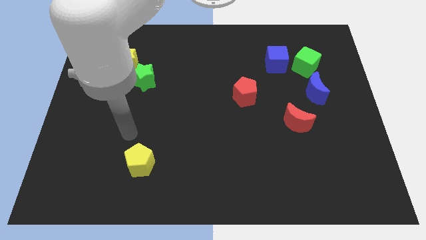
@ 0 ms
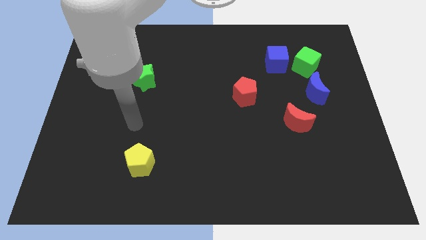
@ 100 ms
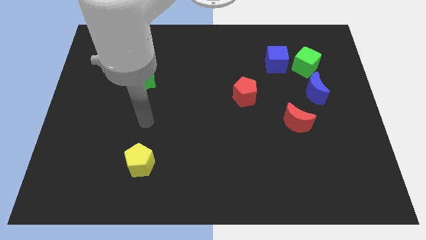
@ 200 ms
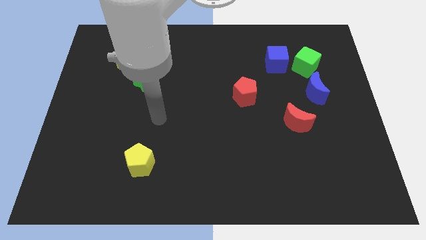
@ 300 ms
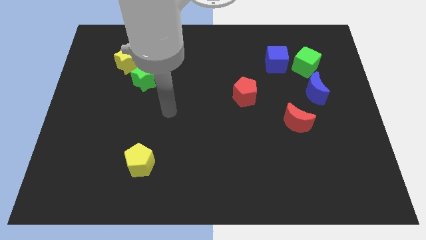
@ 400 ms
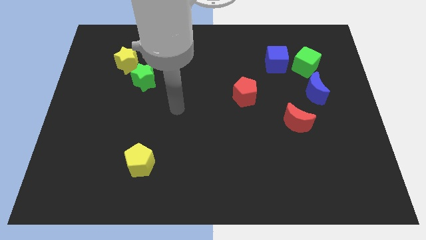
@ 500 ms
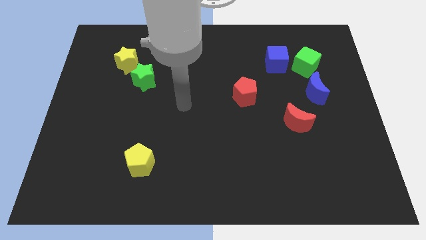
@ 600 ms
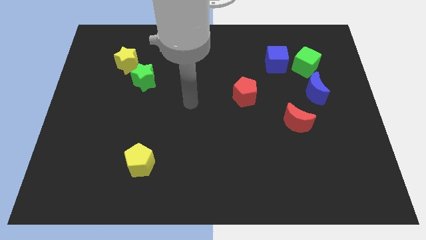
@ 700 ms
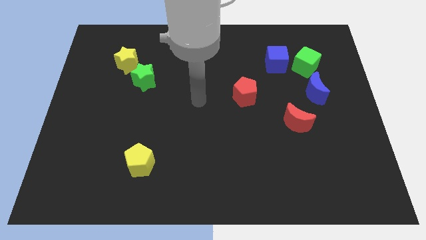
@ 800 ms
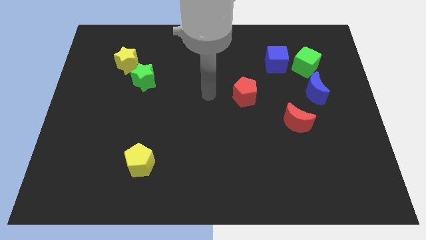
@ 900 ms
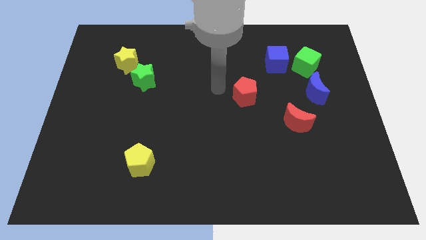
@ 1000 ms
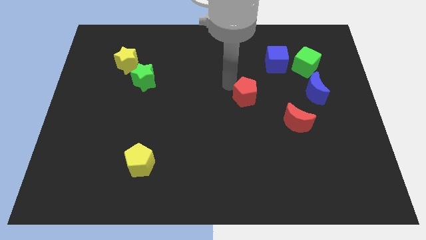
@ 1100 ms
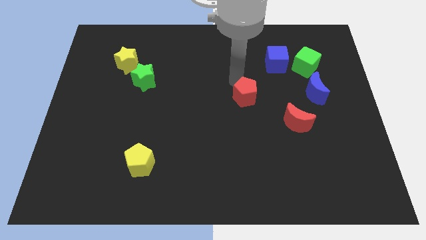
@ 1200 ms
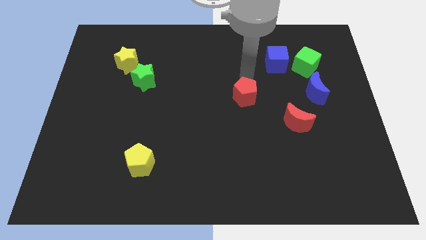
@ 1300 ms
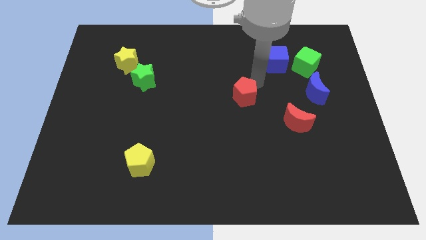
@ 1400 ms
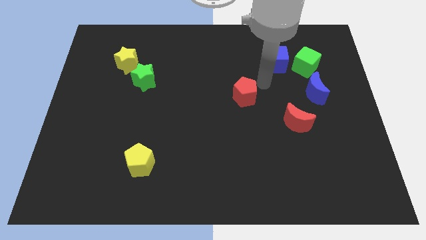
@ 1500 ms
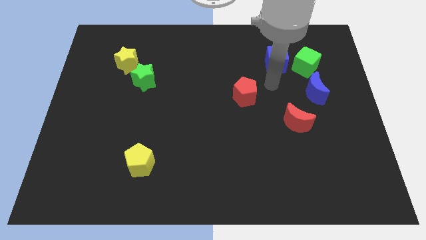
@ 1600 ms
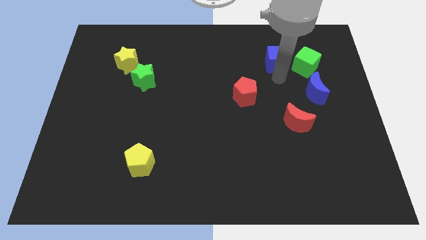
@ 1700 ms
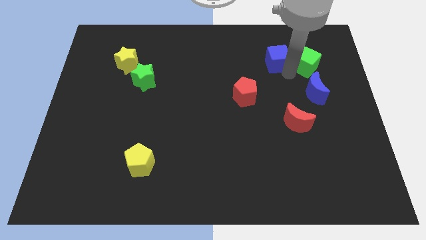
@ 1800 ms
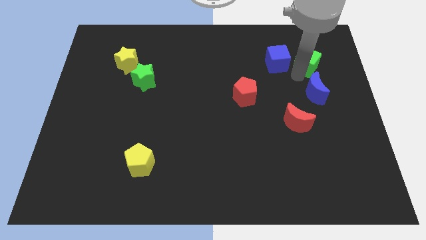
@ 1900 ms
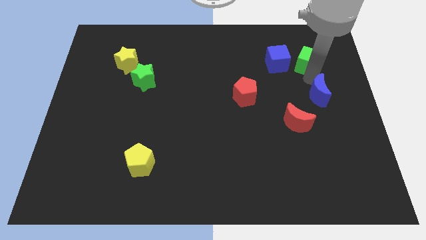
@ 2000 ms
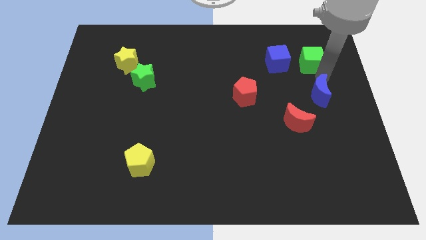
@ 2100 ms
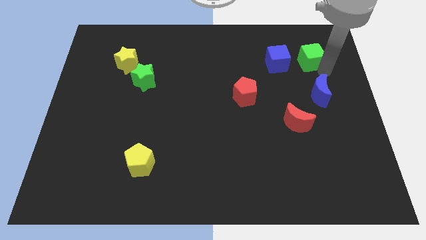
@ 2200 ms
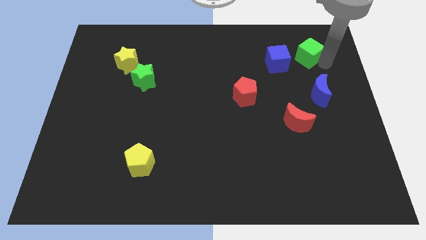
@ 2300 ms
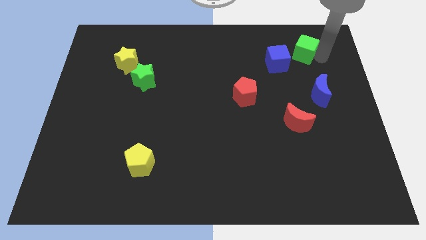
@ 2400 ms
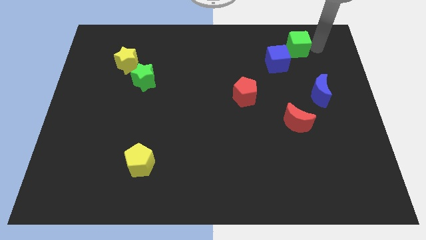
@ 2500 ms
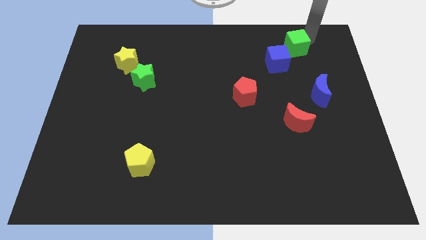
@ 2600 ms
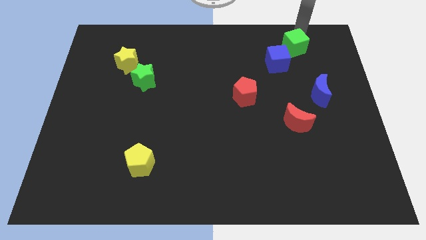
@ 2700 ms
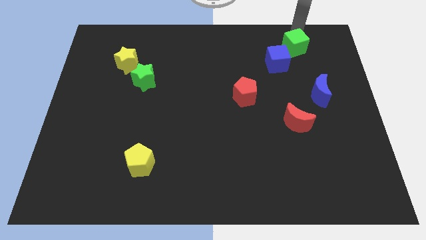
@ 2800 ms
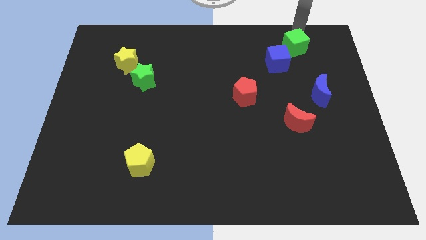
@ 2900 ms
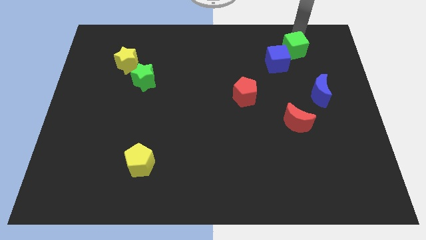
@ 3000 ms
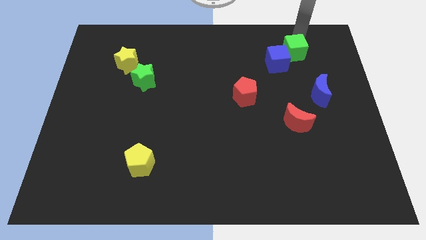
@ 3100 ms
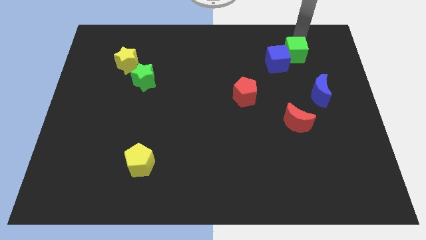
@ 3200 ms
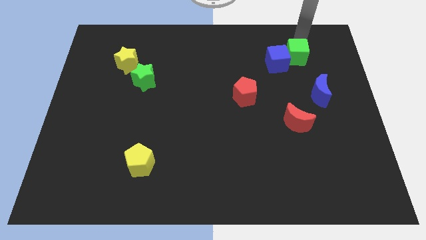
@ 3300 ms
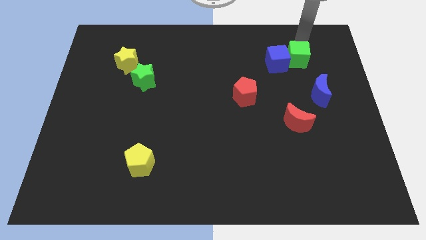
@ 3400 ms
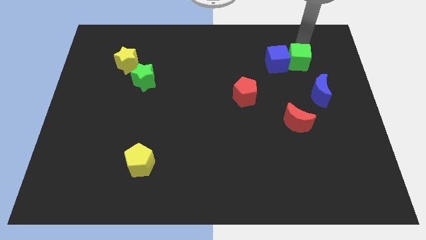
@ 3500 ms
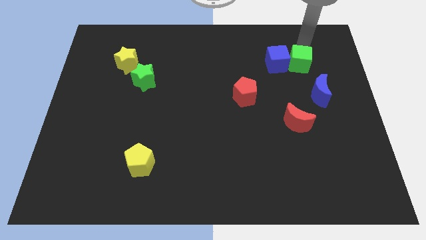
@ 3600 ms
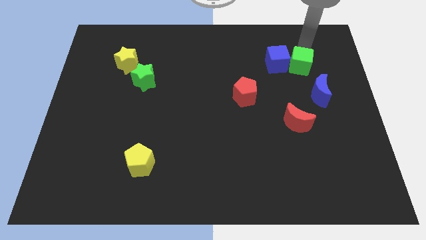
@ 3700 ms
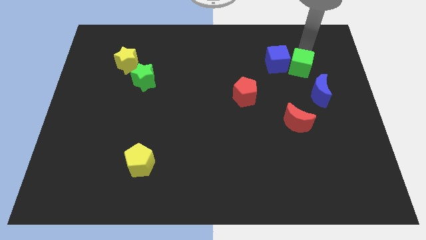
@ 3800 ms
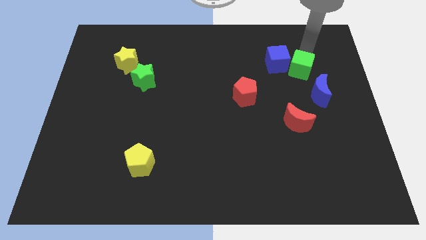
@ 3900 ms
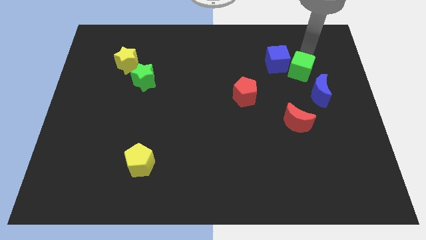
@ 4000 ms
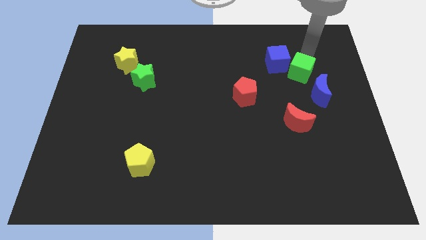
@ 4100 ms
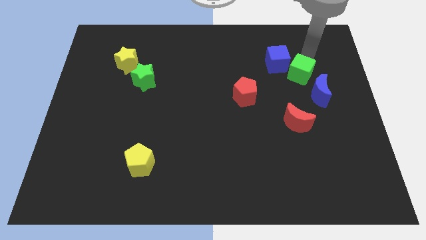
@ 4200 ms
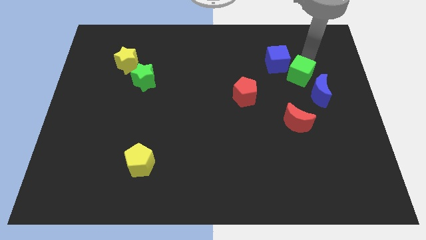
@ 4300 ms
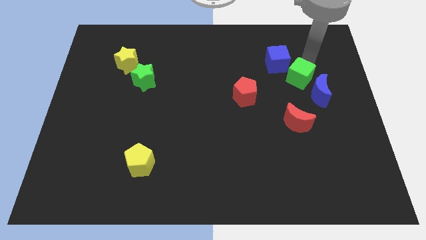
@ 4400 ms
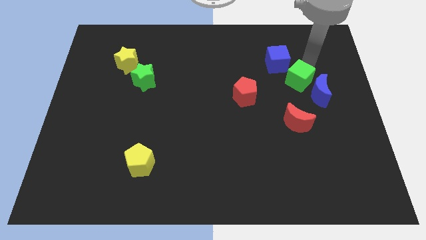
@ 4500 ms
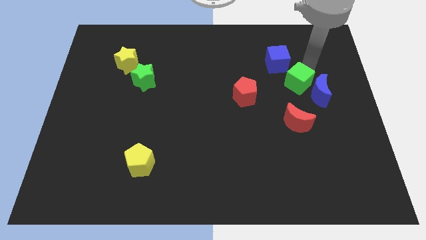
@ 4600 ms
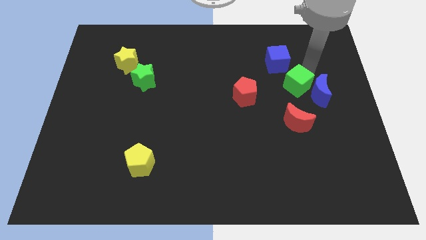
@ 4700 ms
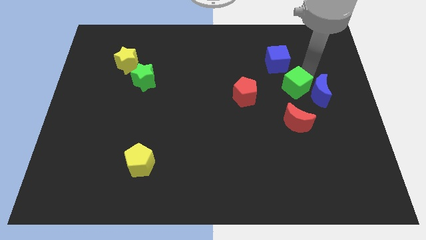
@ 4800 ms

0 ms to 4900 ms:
move the green cube somewhat downwards and left diagonally

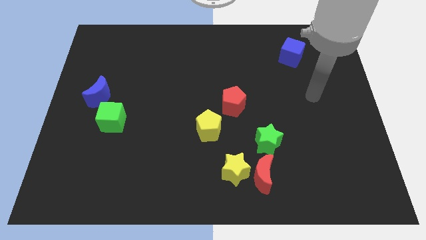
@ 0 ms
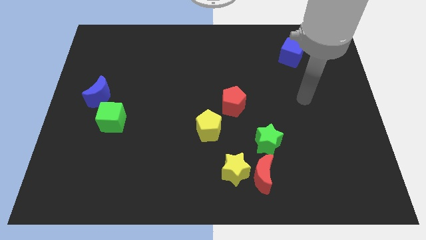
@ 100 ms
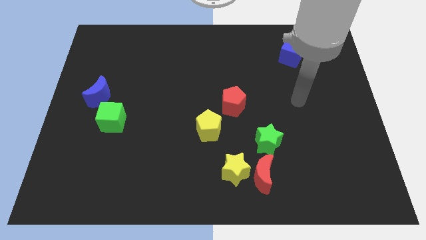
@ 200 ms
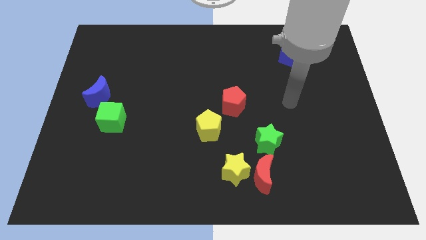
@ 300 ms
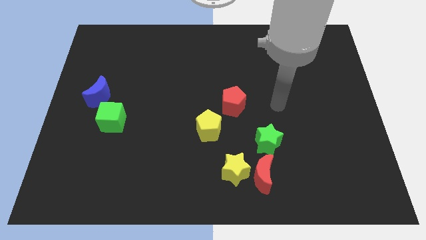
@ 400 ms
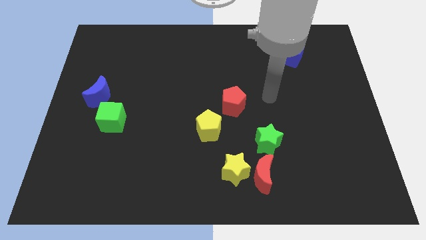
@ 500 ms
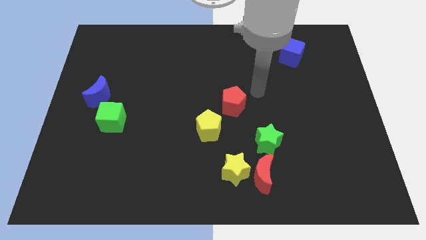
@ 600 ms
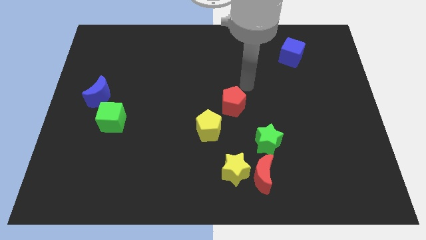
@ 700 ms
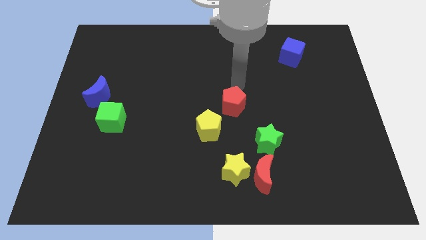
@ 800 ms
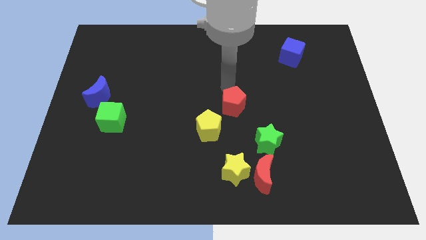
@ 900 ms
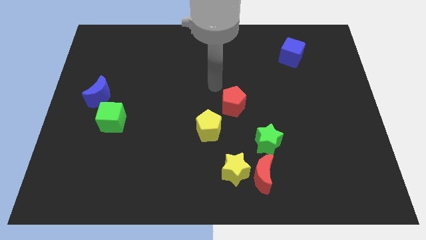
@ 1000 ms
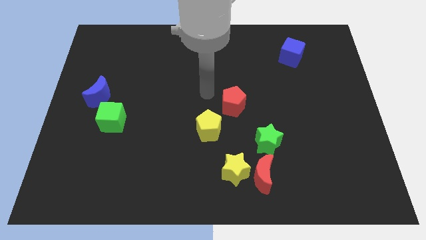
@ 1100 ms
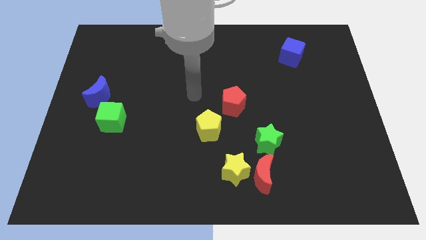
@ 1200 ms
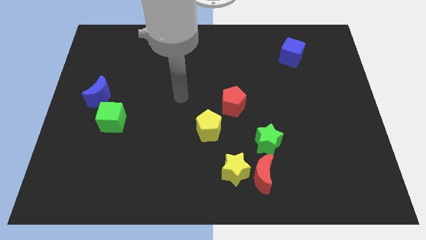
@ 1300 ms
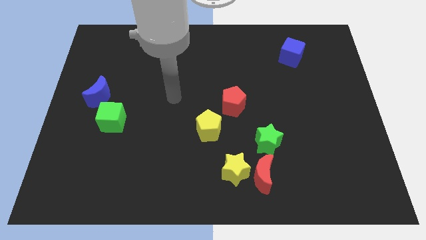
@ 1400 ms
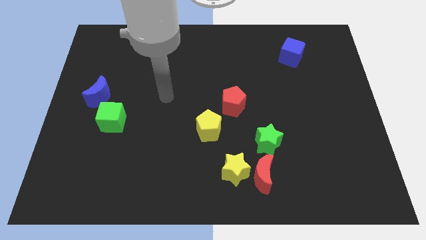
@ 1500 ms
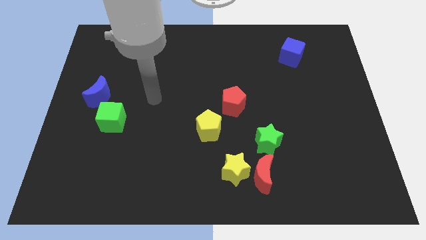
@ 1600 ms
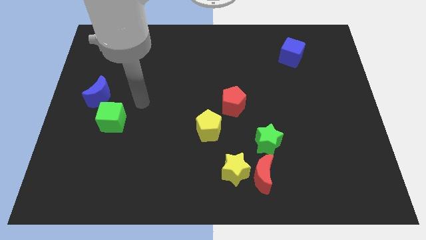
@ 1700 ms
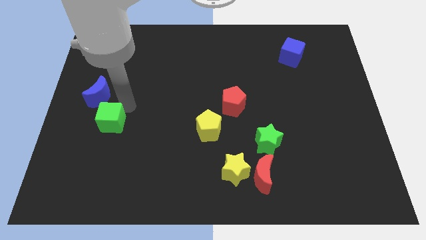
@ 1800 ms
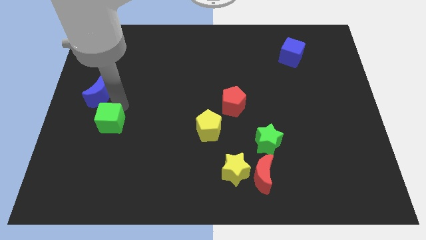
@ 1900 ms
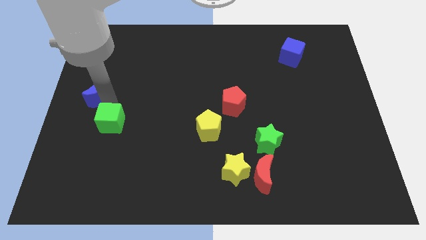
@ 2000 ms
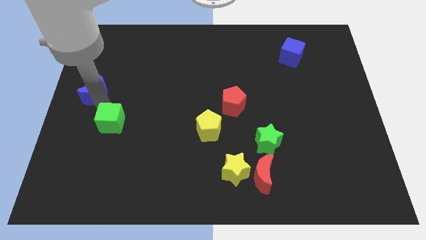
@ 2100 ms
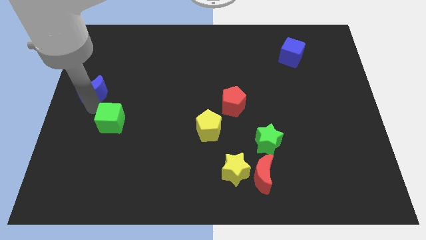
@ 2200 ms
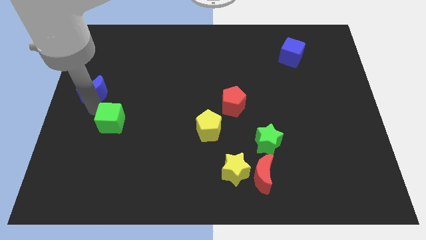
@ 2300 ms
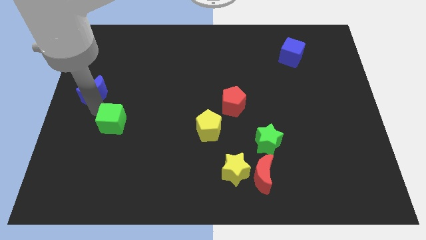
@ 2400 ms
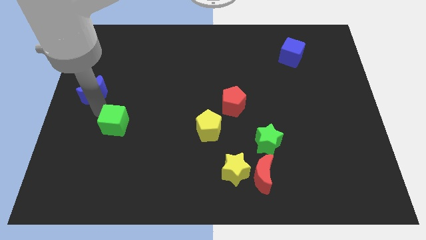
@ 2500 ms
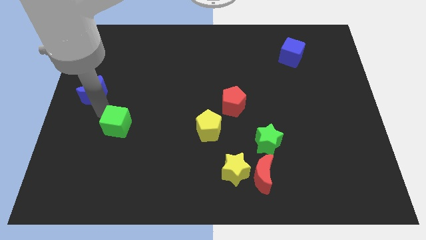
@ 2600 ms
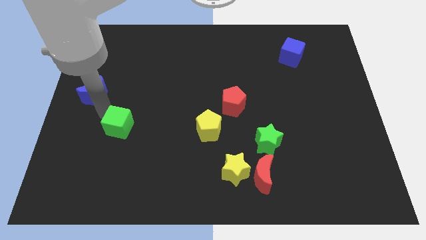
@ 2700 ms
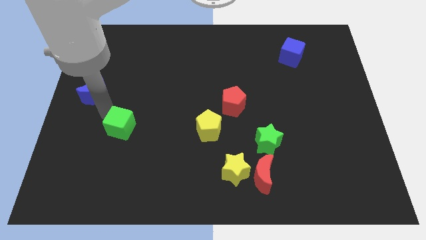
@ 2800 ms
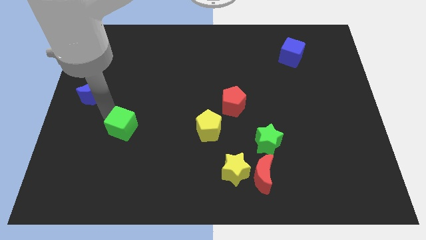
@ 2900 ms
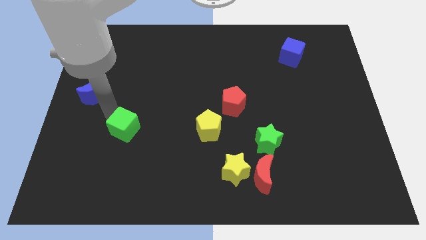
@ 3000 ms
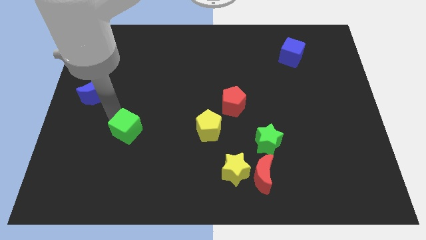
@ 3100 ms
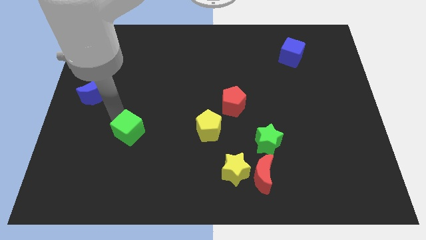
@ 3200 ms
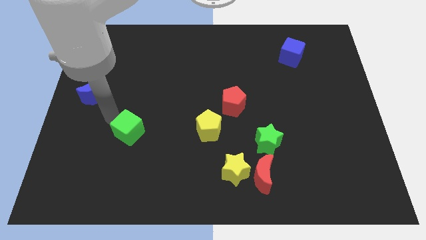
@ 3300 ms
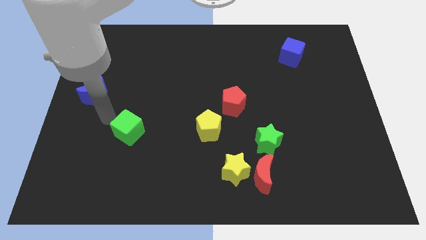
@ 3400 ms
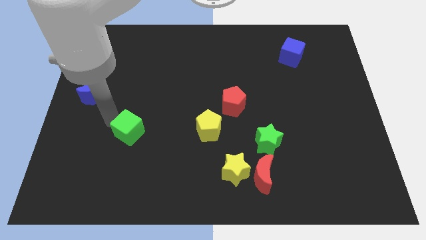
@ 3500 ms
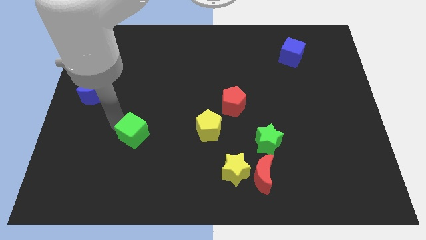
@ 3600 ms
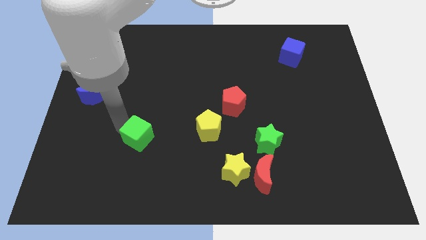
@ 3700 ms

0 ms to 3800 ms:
slightly slide the green cube diagonally down and right
